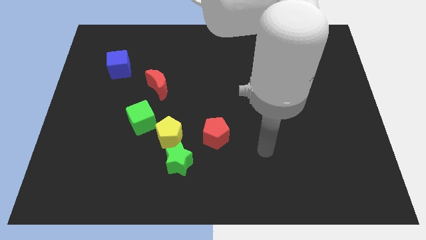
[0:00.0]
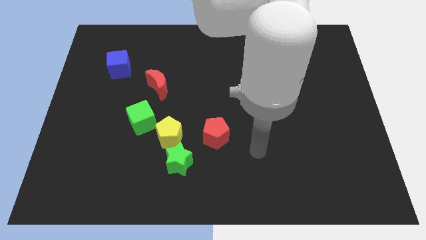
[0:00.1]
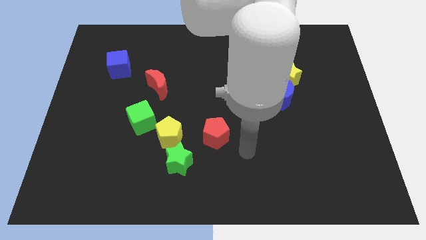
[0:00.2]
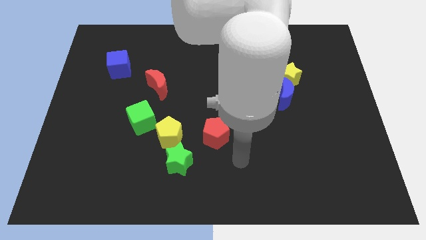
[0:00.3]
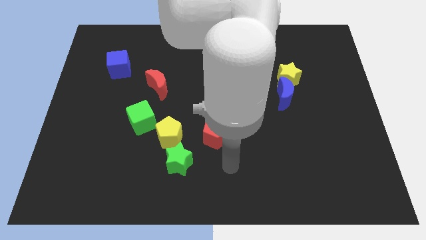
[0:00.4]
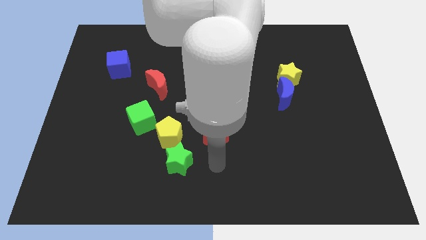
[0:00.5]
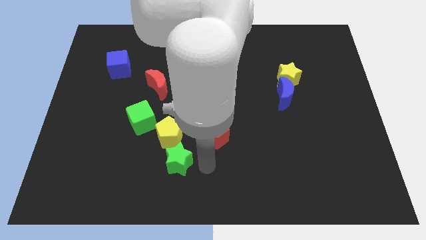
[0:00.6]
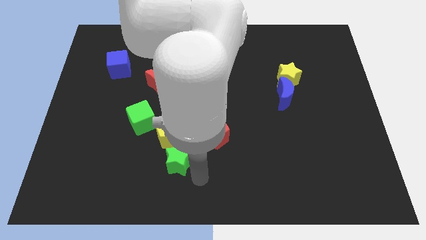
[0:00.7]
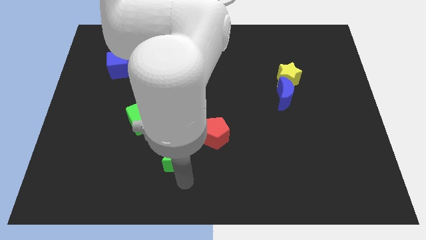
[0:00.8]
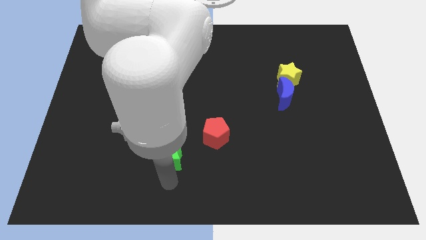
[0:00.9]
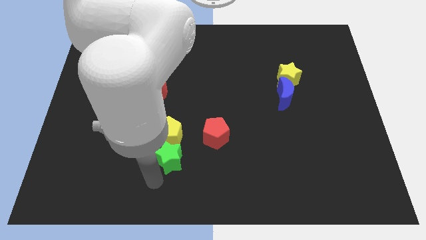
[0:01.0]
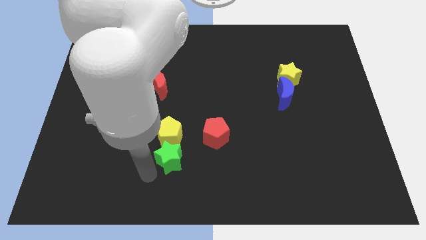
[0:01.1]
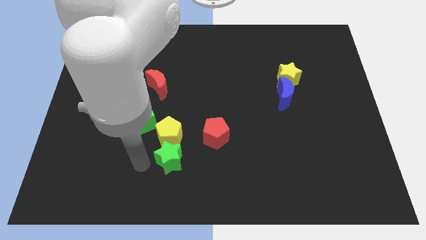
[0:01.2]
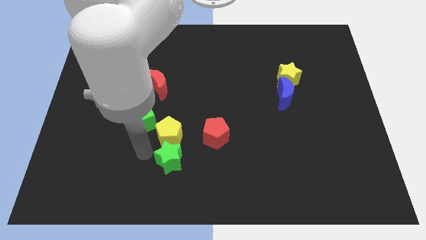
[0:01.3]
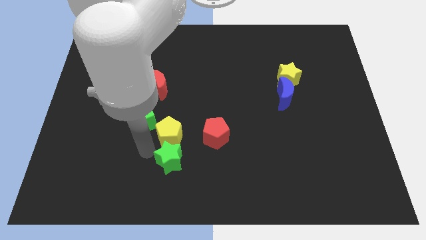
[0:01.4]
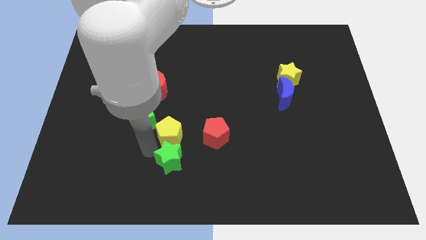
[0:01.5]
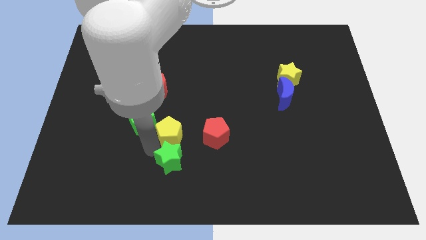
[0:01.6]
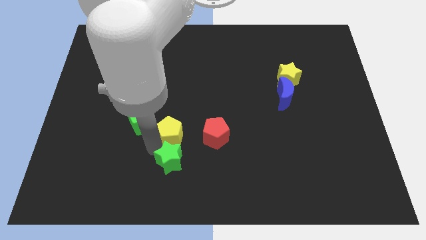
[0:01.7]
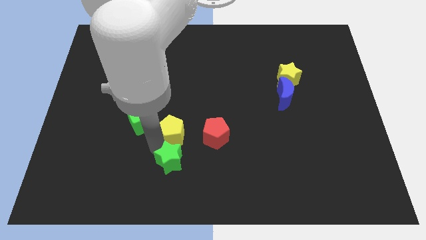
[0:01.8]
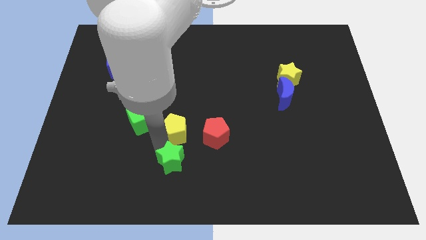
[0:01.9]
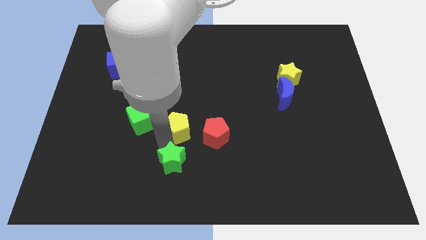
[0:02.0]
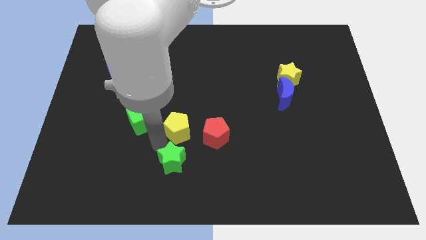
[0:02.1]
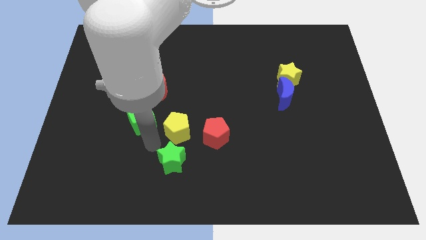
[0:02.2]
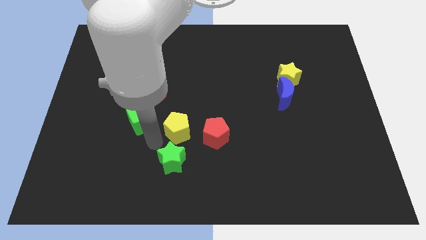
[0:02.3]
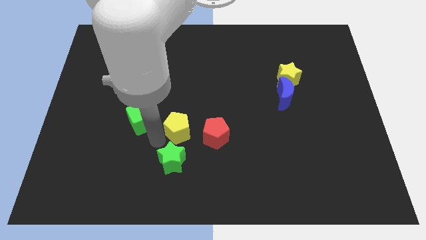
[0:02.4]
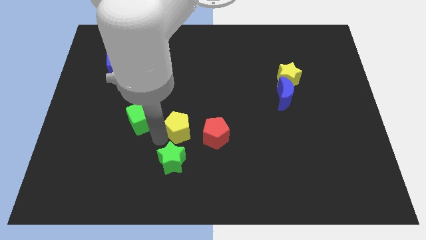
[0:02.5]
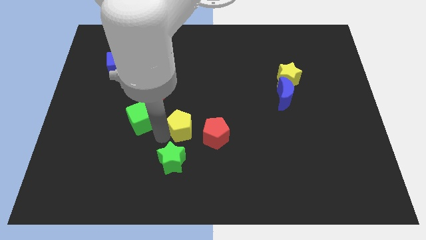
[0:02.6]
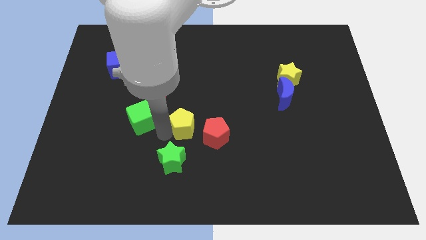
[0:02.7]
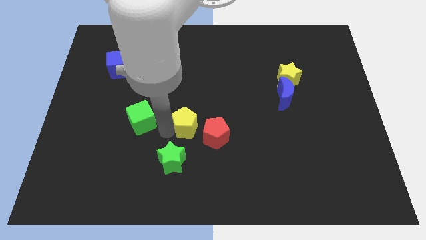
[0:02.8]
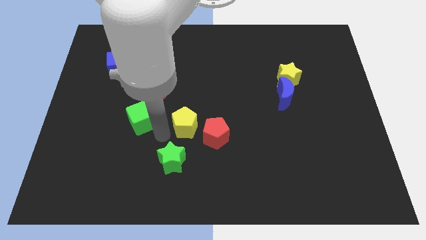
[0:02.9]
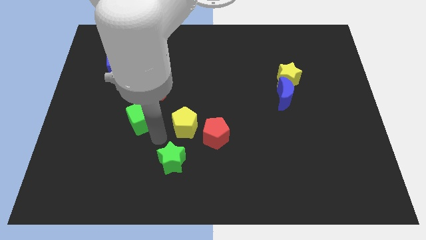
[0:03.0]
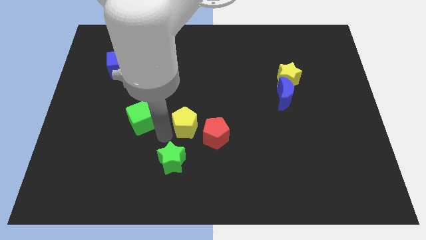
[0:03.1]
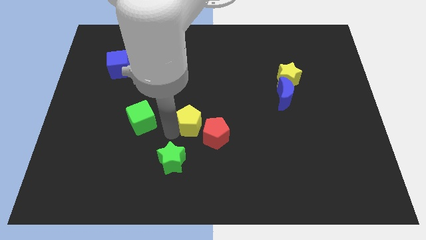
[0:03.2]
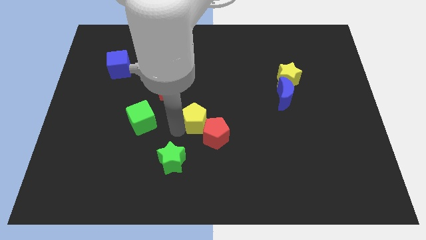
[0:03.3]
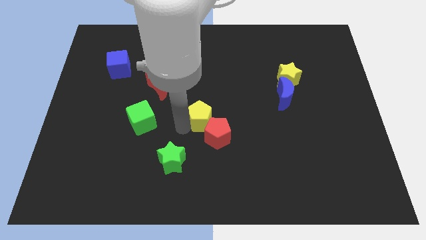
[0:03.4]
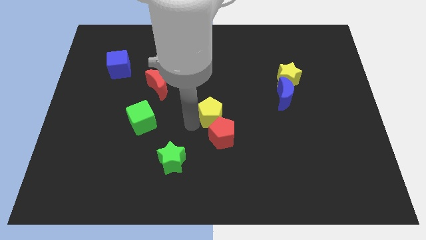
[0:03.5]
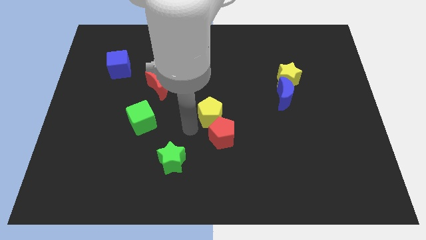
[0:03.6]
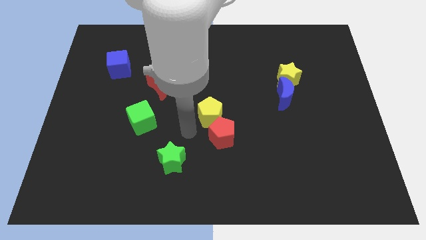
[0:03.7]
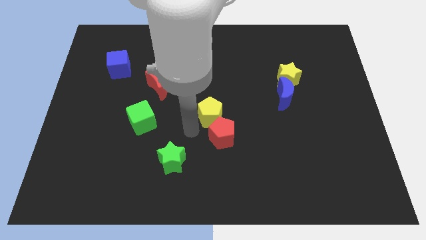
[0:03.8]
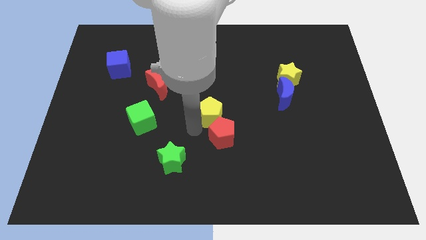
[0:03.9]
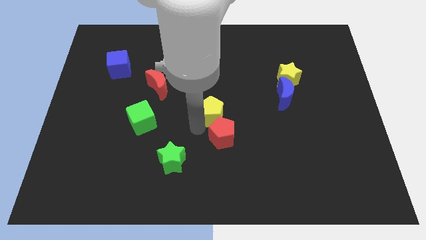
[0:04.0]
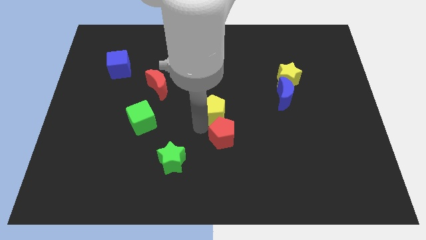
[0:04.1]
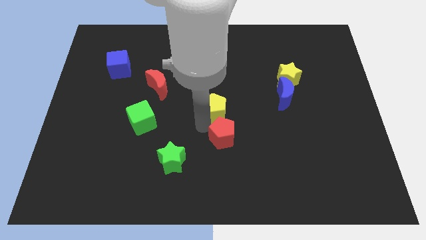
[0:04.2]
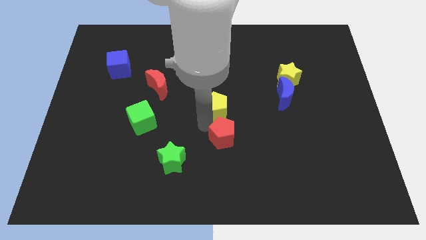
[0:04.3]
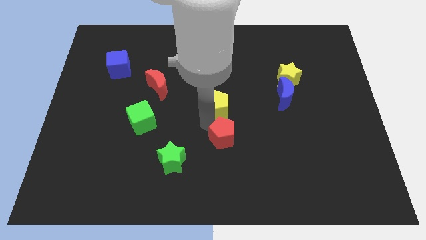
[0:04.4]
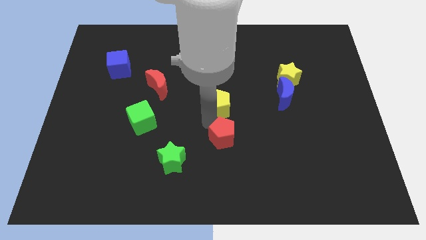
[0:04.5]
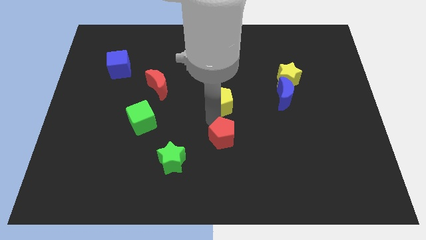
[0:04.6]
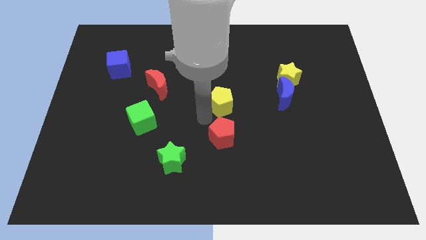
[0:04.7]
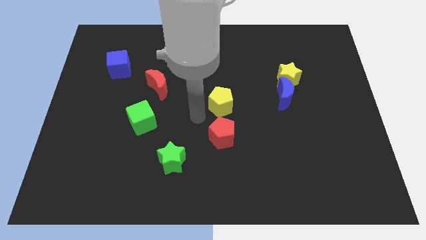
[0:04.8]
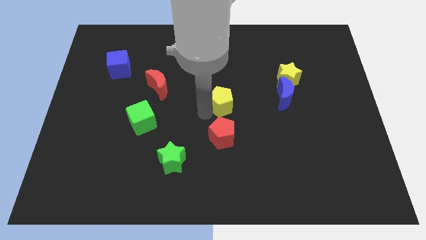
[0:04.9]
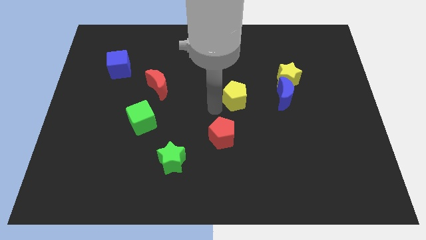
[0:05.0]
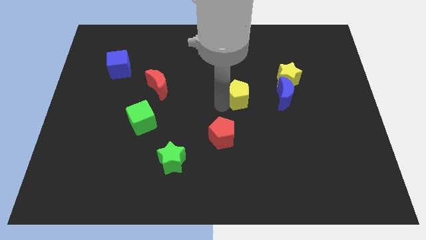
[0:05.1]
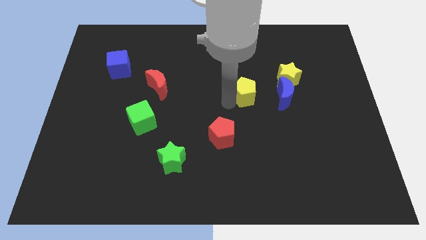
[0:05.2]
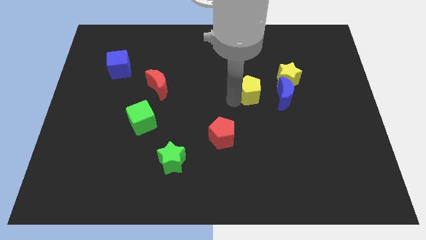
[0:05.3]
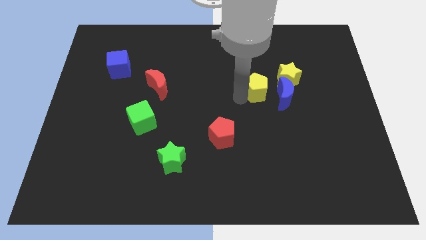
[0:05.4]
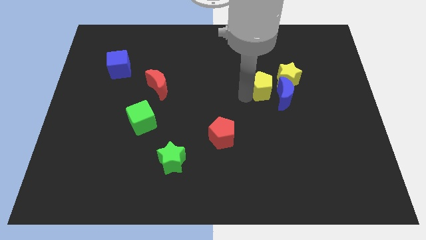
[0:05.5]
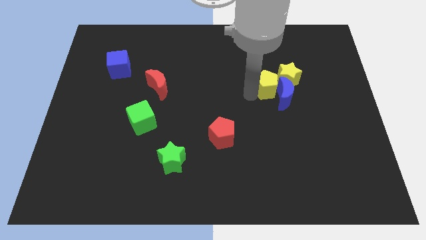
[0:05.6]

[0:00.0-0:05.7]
slide the yellow pentagon towards the yellow star

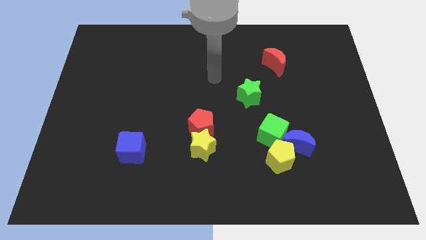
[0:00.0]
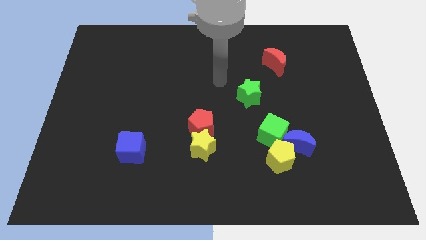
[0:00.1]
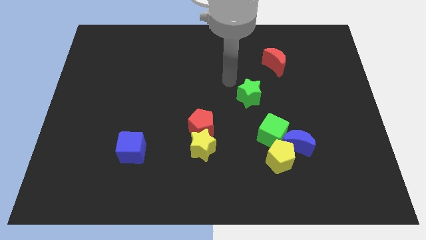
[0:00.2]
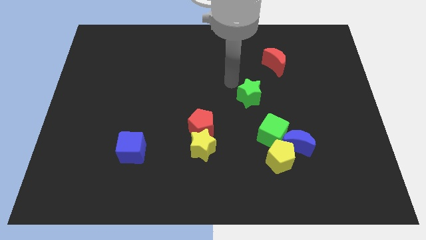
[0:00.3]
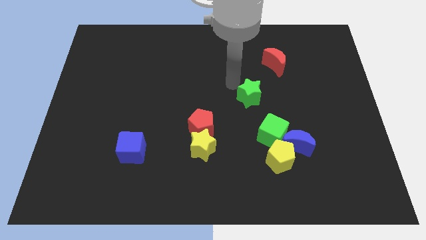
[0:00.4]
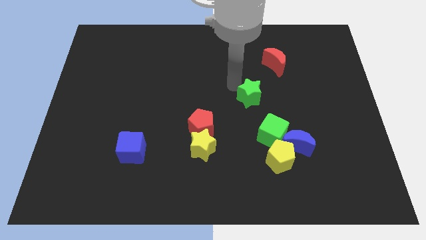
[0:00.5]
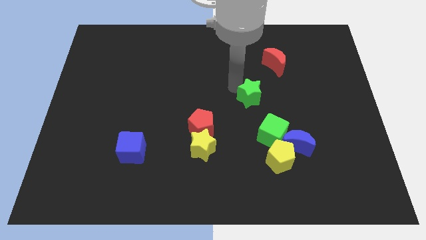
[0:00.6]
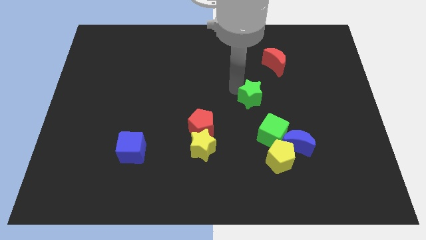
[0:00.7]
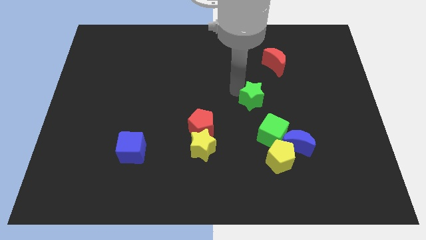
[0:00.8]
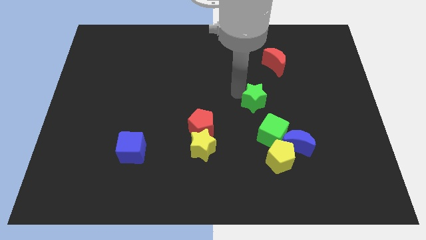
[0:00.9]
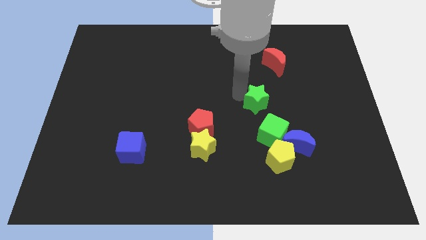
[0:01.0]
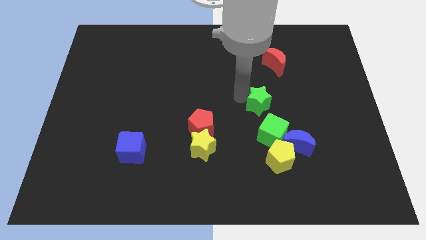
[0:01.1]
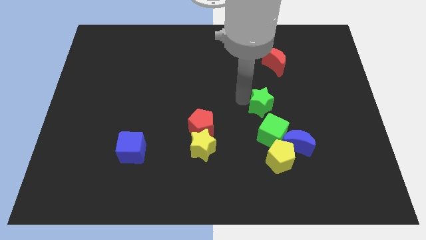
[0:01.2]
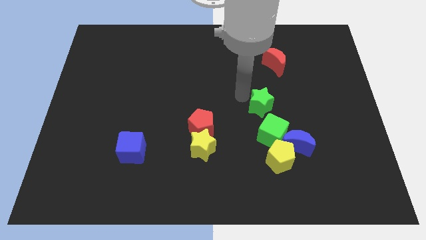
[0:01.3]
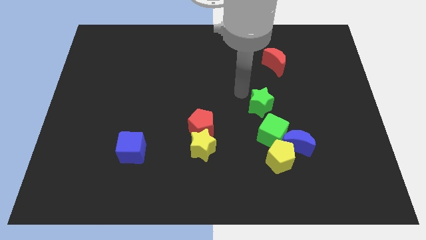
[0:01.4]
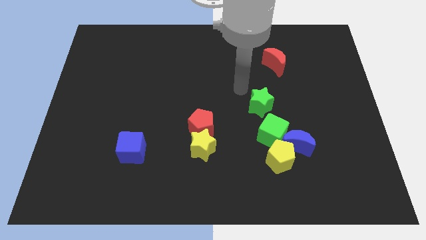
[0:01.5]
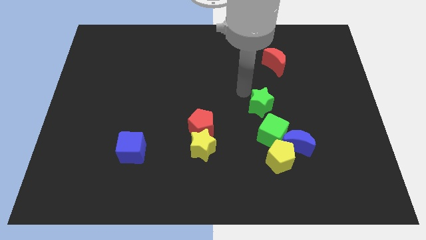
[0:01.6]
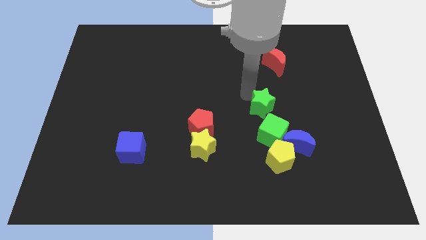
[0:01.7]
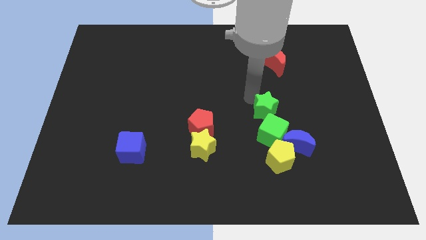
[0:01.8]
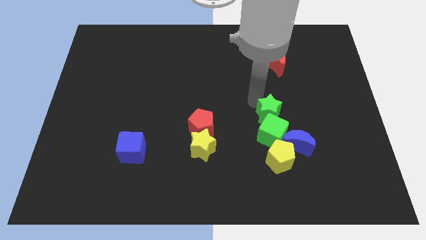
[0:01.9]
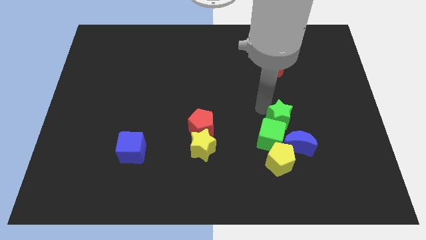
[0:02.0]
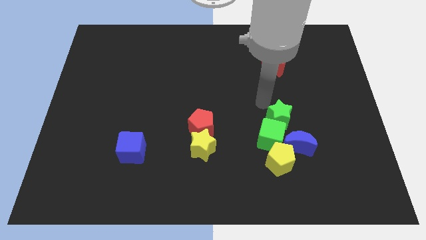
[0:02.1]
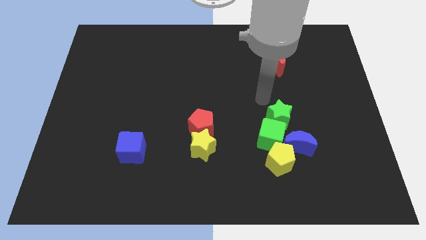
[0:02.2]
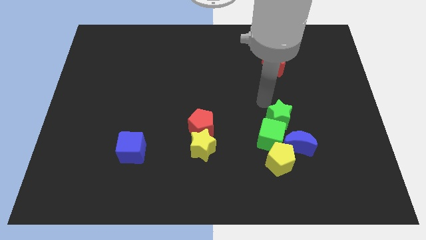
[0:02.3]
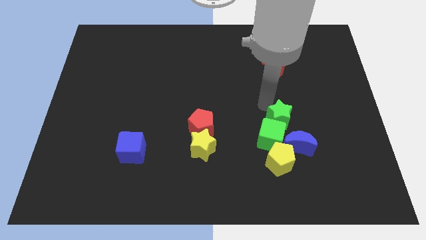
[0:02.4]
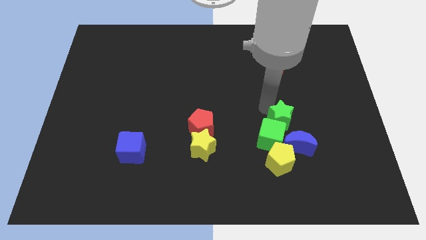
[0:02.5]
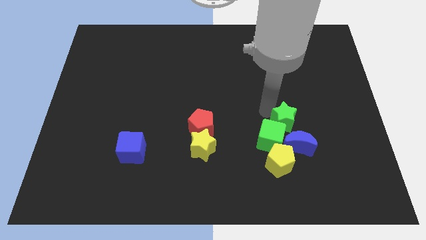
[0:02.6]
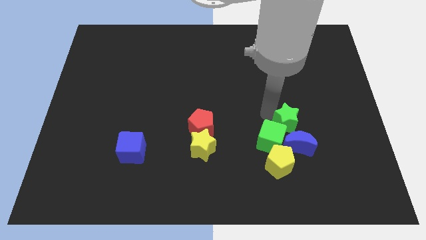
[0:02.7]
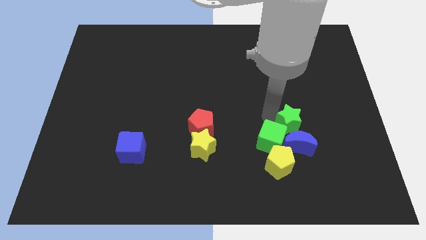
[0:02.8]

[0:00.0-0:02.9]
push the green star close to the blue moon
